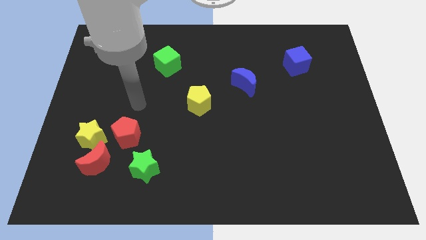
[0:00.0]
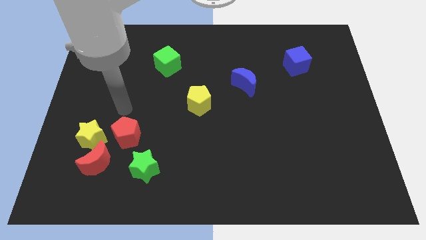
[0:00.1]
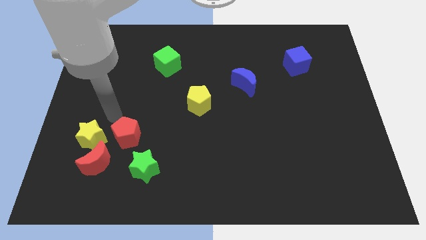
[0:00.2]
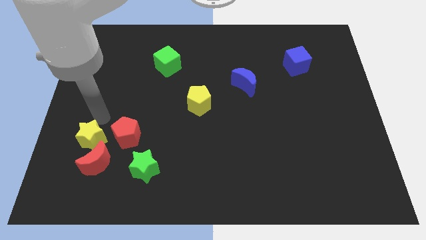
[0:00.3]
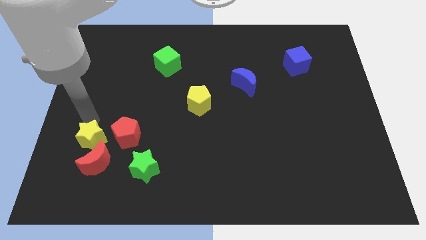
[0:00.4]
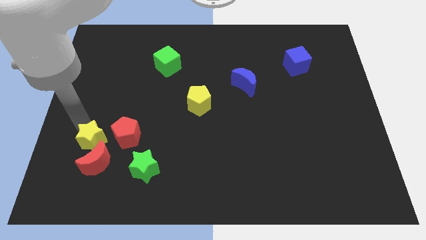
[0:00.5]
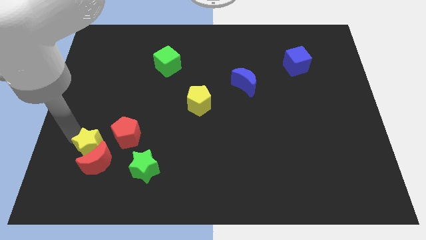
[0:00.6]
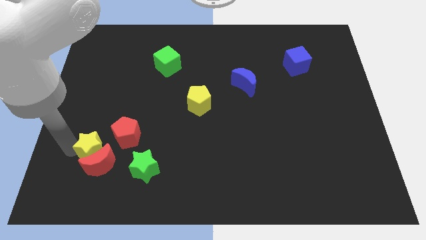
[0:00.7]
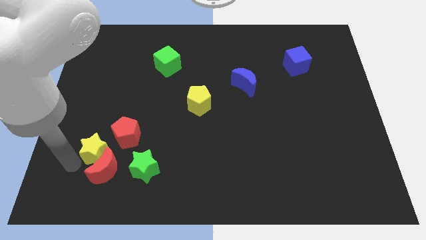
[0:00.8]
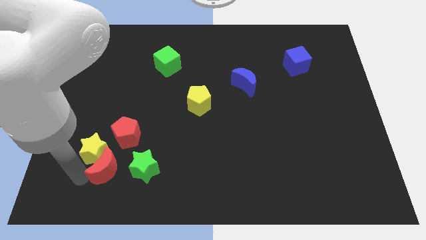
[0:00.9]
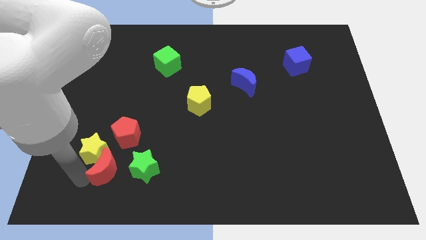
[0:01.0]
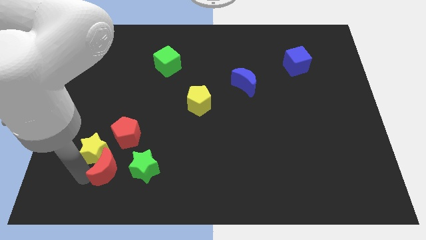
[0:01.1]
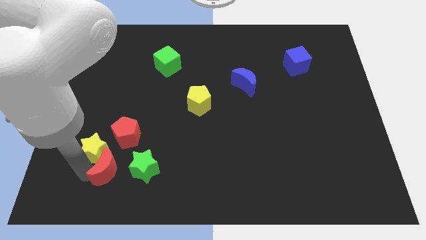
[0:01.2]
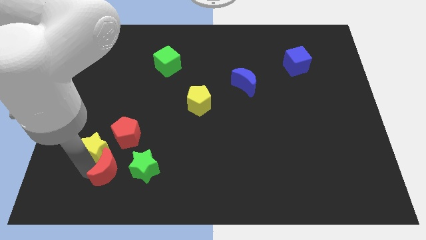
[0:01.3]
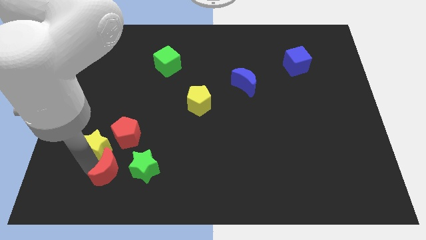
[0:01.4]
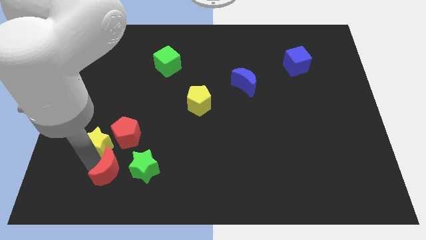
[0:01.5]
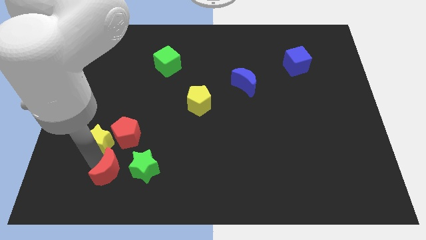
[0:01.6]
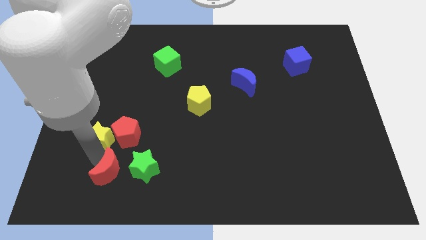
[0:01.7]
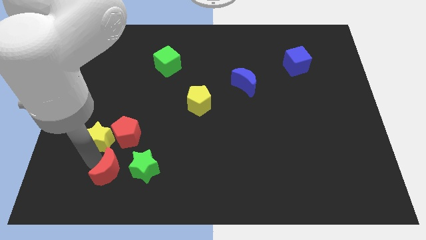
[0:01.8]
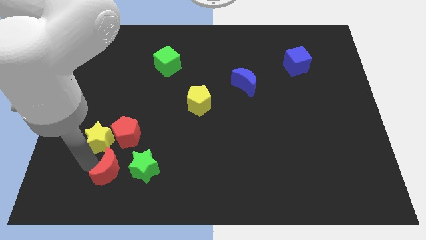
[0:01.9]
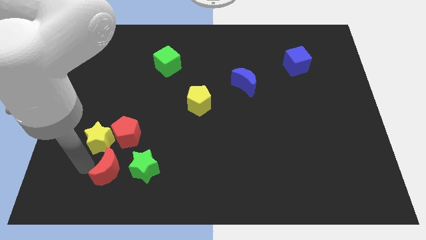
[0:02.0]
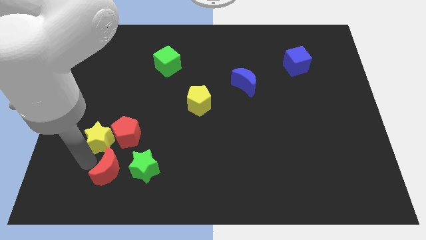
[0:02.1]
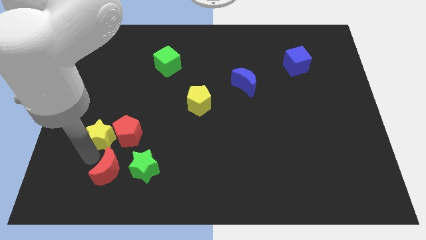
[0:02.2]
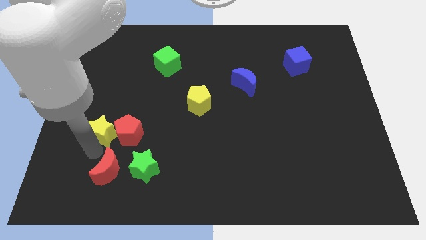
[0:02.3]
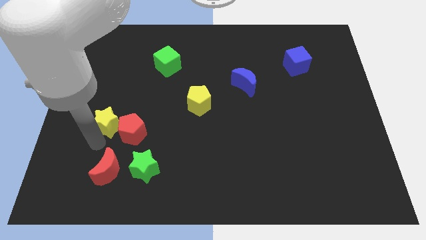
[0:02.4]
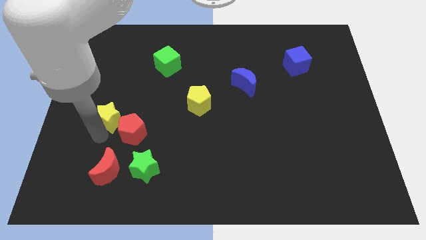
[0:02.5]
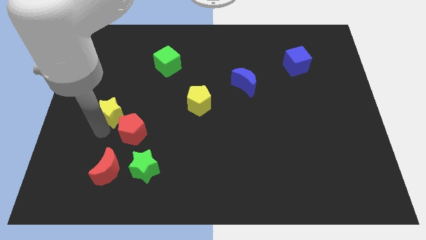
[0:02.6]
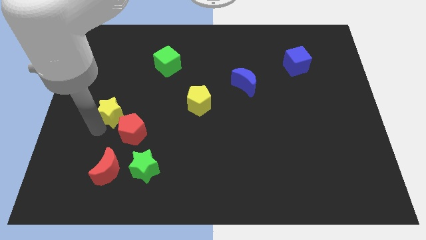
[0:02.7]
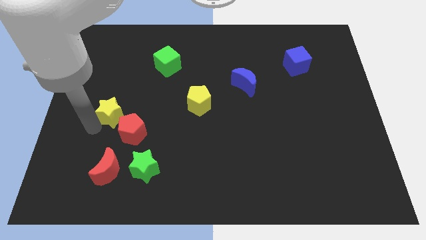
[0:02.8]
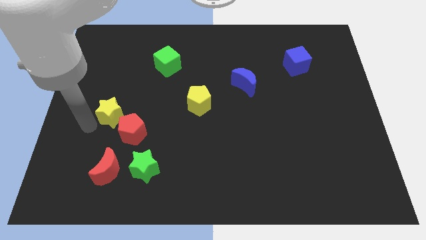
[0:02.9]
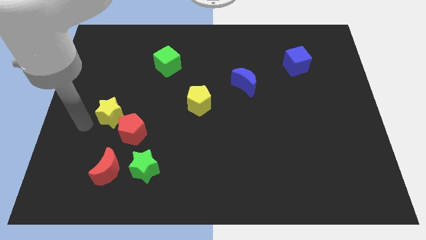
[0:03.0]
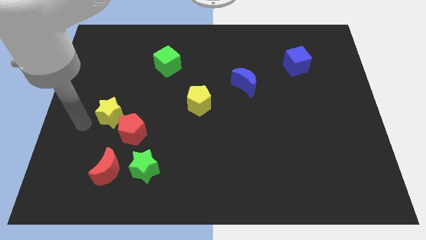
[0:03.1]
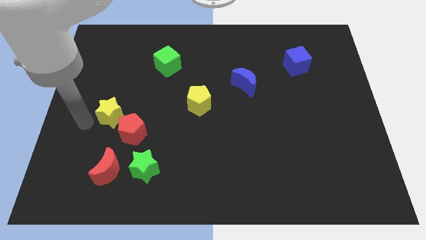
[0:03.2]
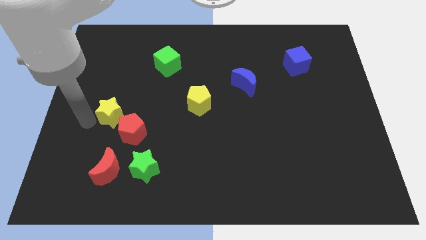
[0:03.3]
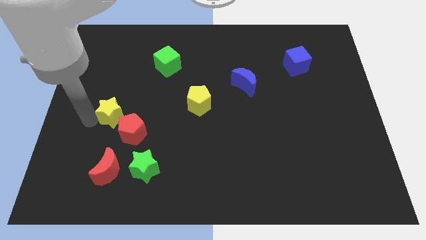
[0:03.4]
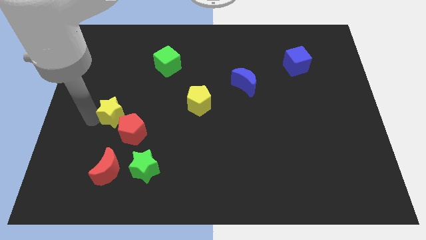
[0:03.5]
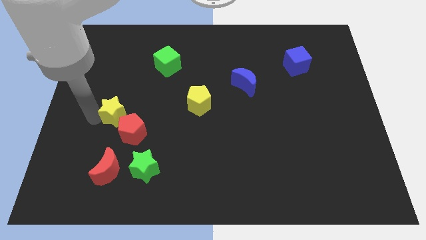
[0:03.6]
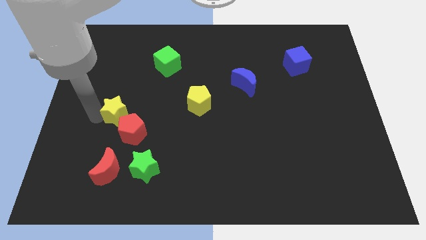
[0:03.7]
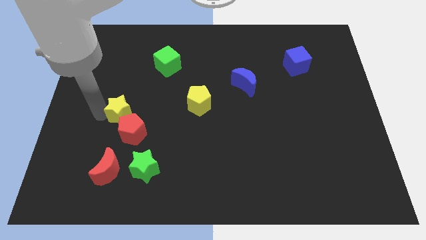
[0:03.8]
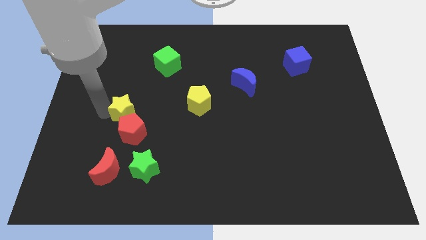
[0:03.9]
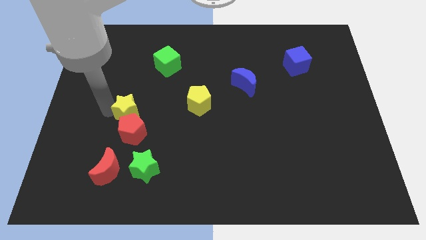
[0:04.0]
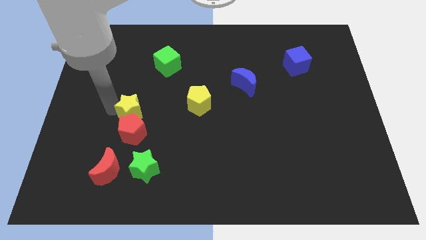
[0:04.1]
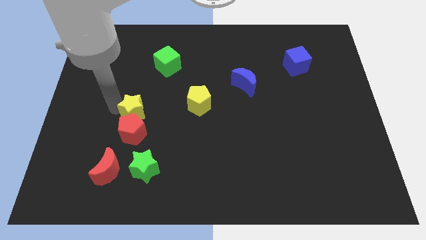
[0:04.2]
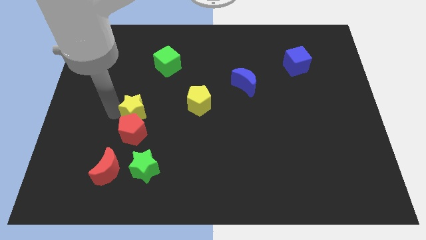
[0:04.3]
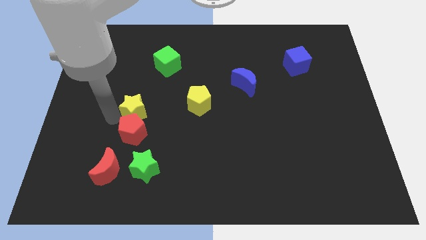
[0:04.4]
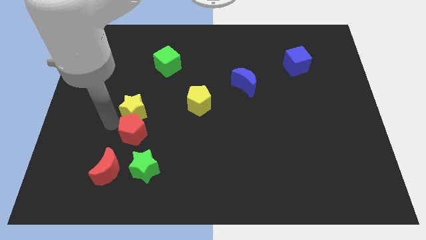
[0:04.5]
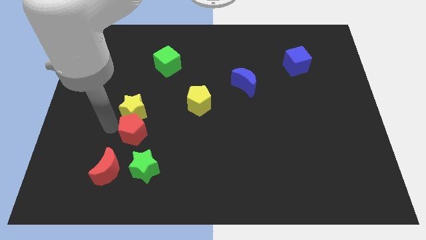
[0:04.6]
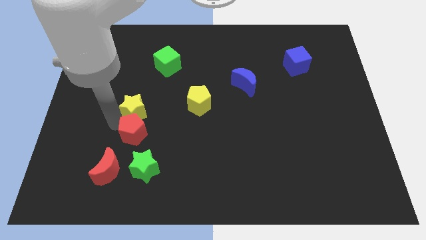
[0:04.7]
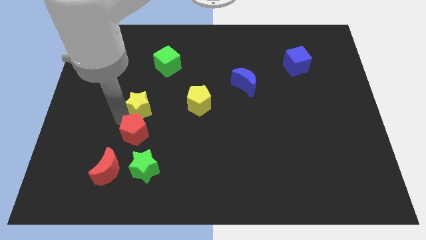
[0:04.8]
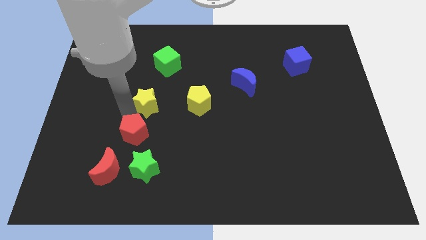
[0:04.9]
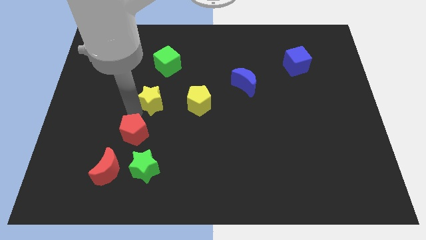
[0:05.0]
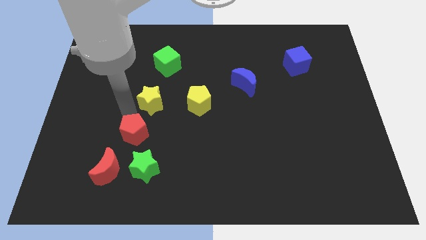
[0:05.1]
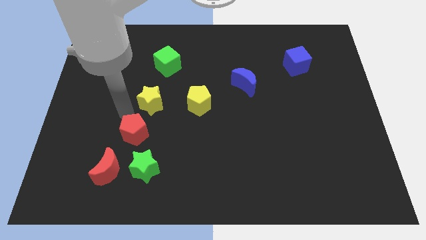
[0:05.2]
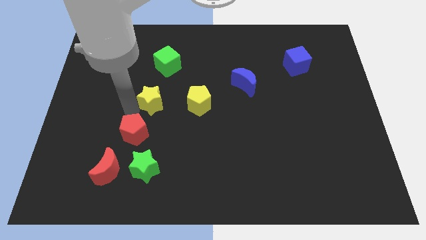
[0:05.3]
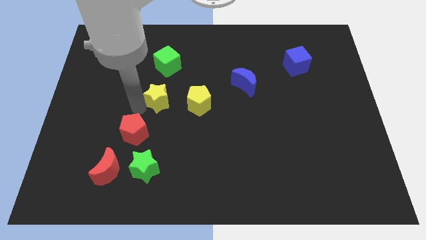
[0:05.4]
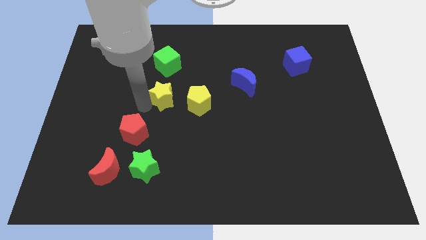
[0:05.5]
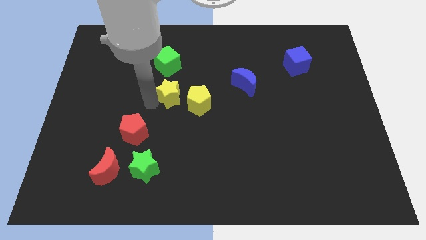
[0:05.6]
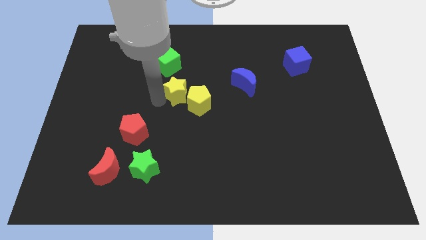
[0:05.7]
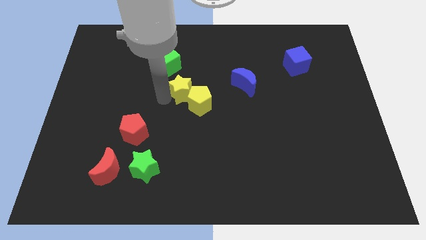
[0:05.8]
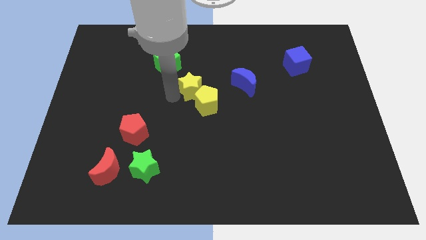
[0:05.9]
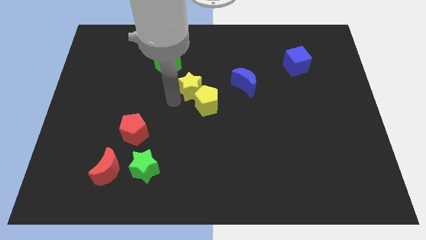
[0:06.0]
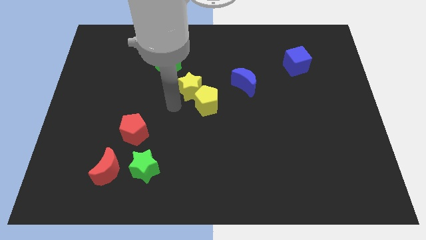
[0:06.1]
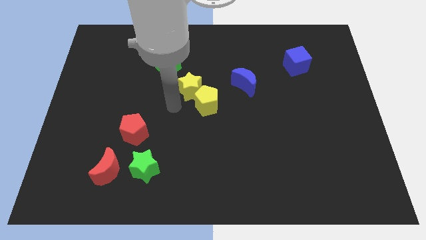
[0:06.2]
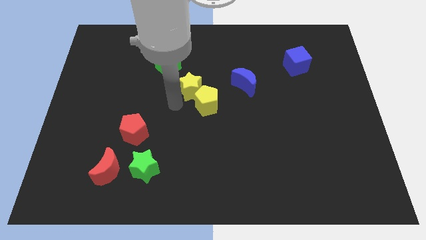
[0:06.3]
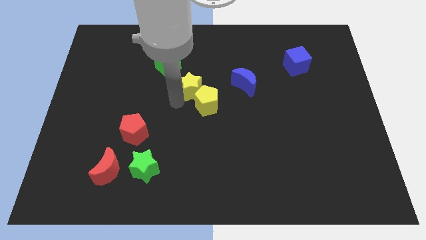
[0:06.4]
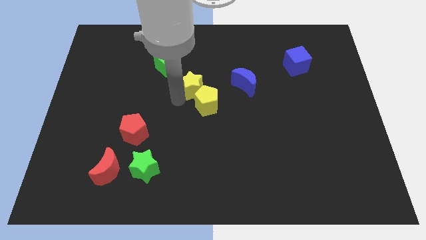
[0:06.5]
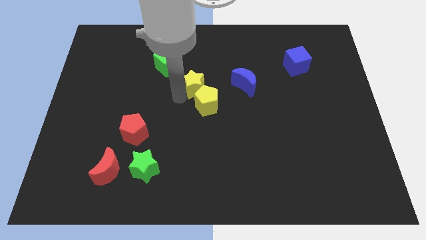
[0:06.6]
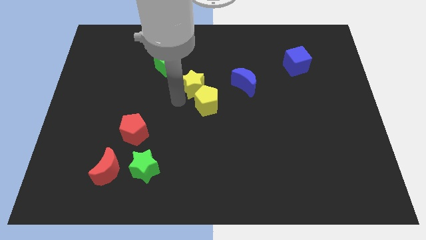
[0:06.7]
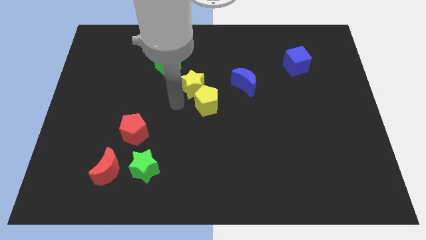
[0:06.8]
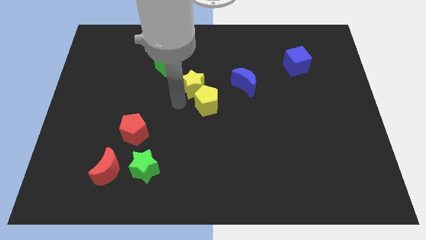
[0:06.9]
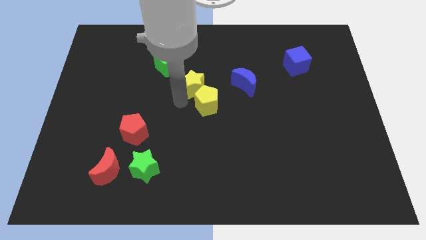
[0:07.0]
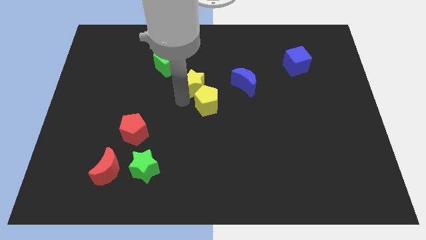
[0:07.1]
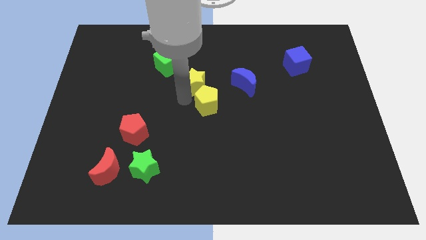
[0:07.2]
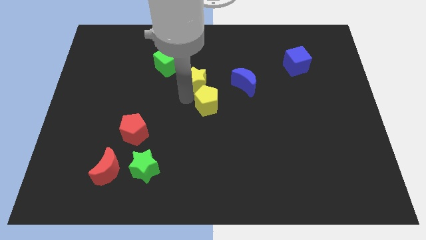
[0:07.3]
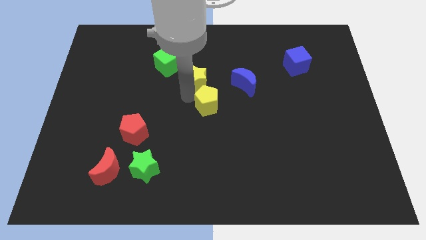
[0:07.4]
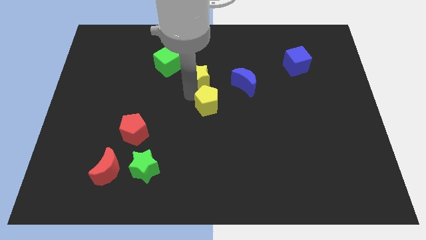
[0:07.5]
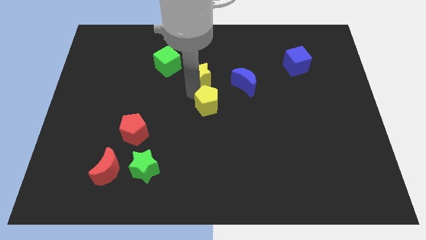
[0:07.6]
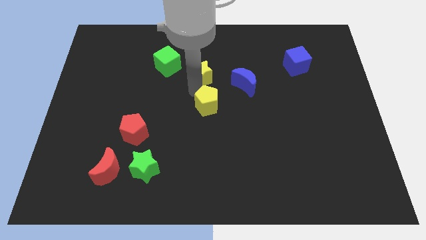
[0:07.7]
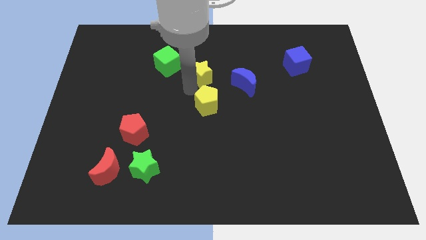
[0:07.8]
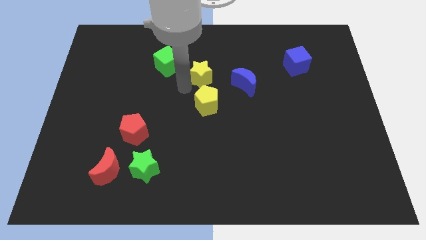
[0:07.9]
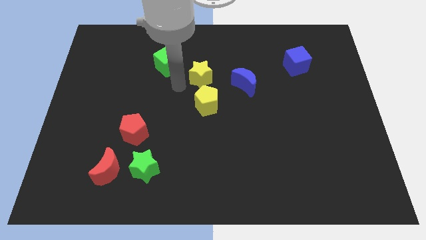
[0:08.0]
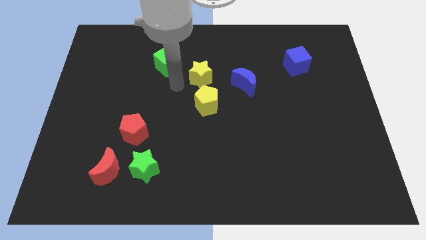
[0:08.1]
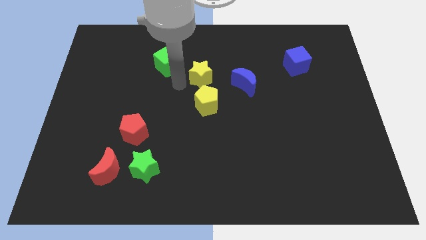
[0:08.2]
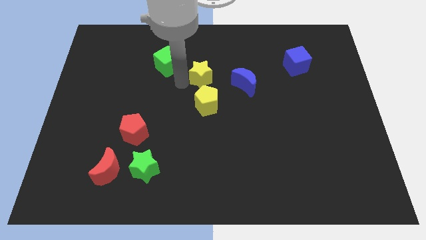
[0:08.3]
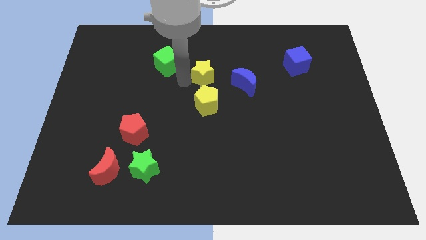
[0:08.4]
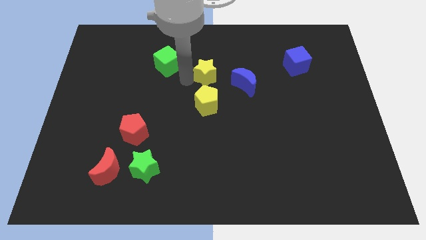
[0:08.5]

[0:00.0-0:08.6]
push the yellow star to the top left of the blue moon
